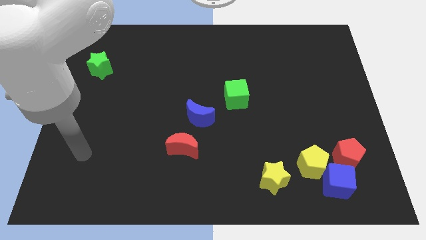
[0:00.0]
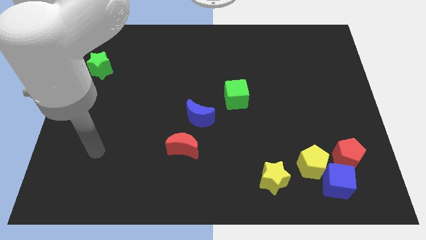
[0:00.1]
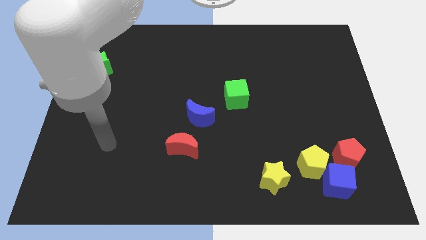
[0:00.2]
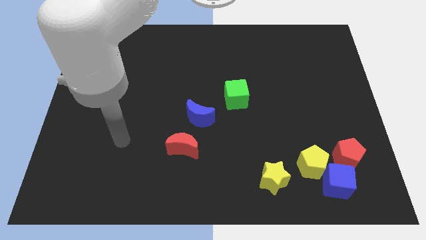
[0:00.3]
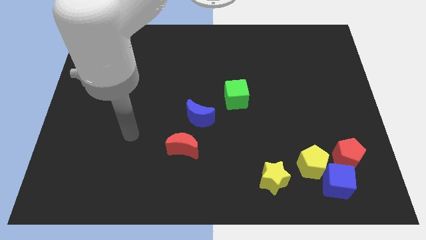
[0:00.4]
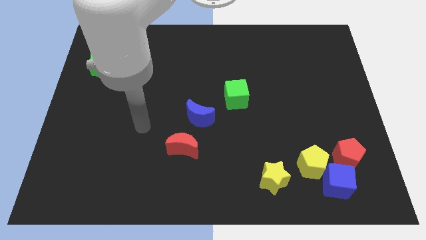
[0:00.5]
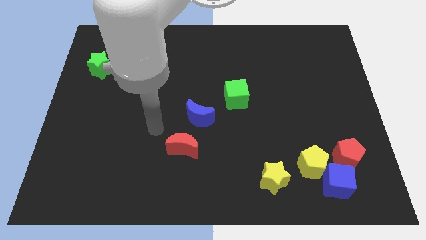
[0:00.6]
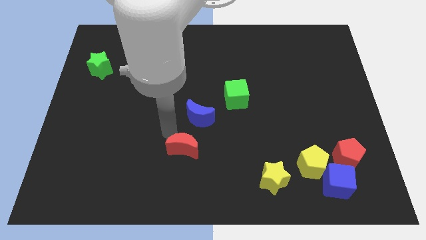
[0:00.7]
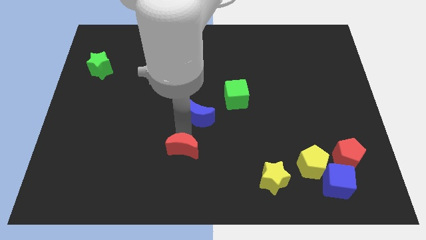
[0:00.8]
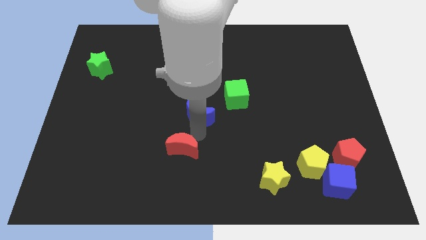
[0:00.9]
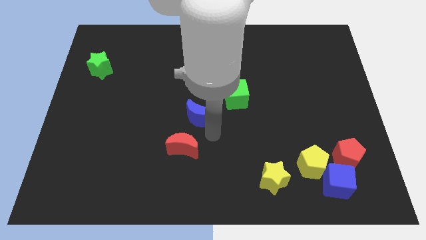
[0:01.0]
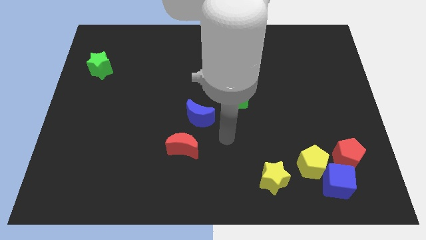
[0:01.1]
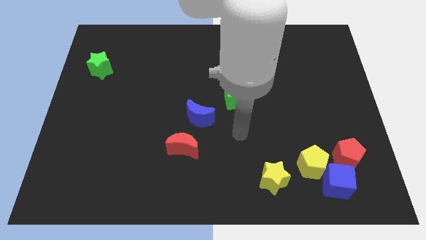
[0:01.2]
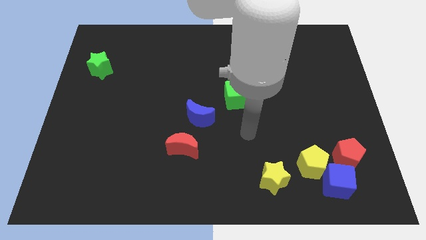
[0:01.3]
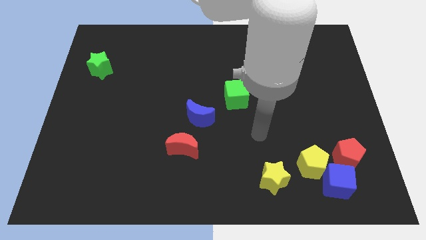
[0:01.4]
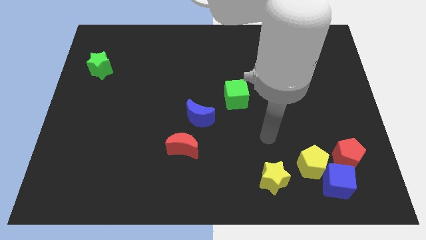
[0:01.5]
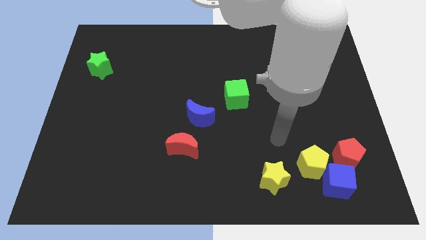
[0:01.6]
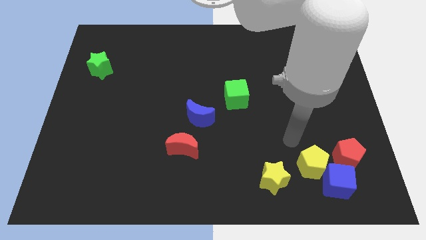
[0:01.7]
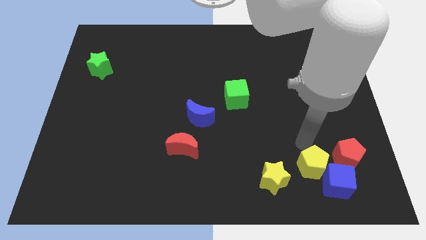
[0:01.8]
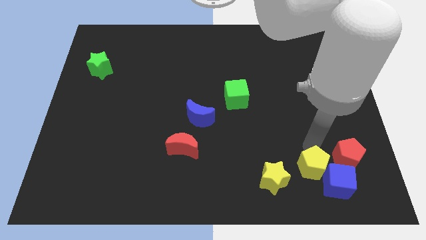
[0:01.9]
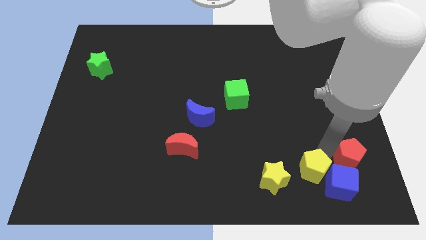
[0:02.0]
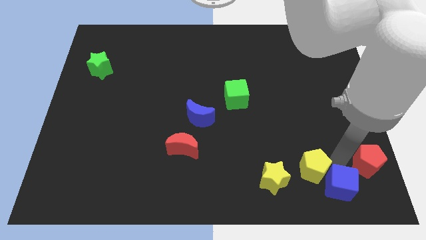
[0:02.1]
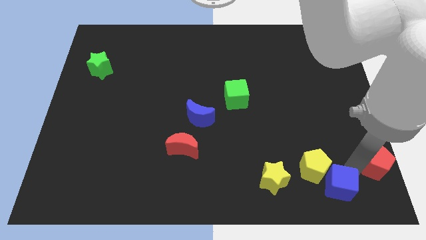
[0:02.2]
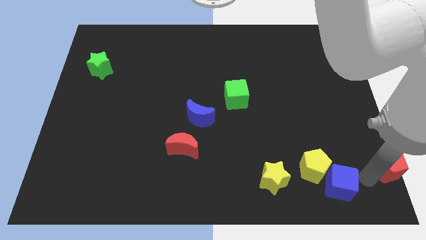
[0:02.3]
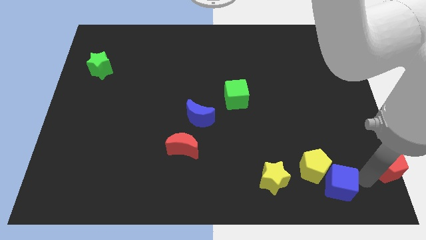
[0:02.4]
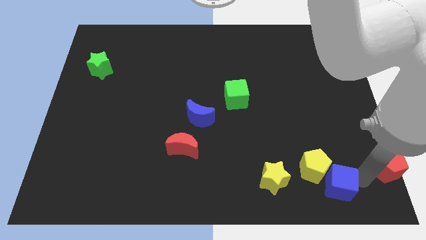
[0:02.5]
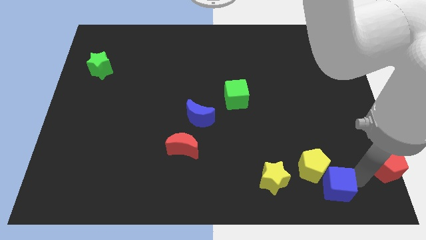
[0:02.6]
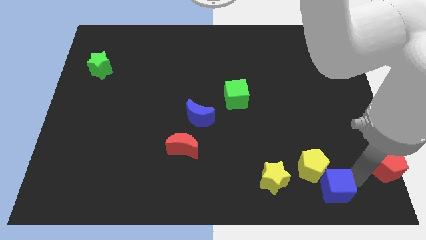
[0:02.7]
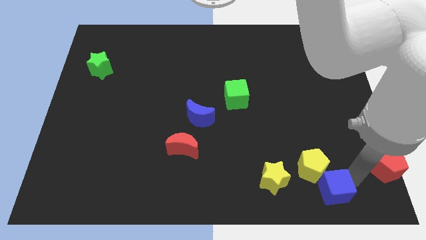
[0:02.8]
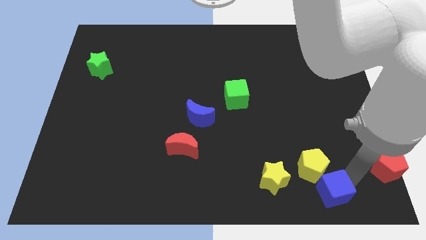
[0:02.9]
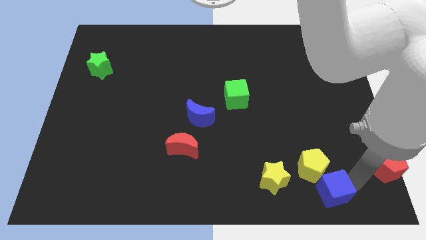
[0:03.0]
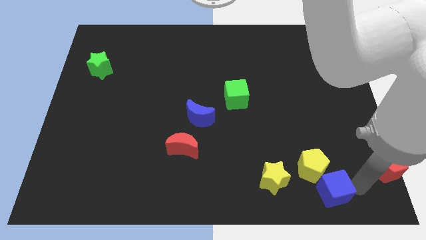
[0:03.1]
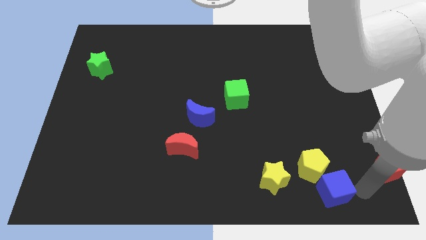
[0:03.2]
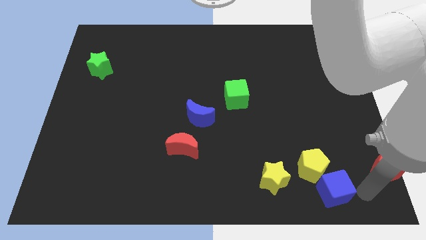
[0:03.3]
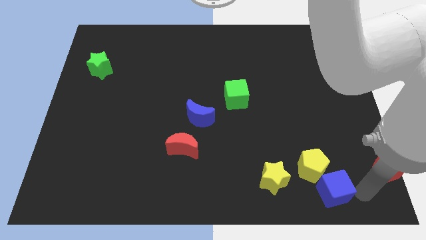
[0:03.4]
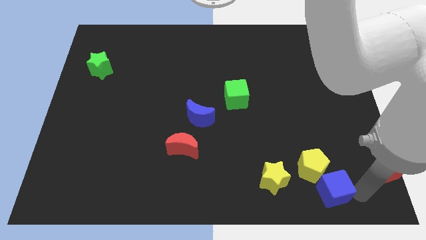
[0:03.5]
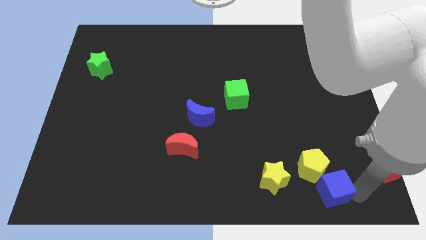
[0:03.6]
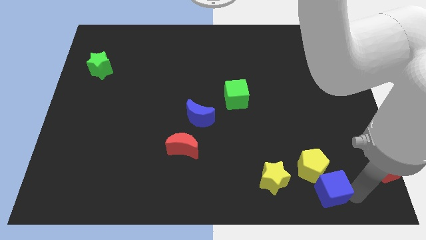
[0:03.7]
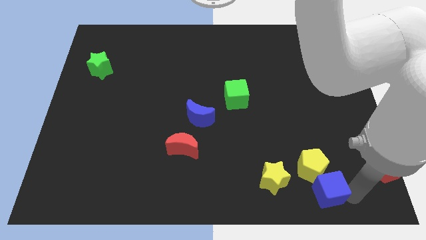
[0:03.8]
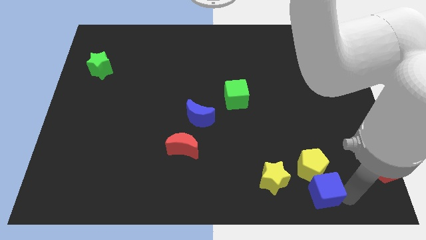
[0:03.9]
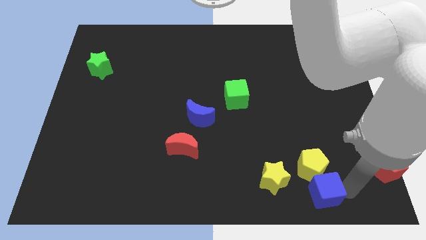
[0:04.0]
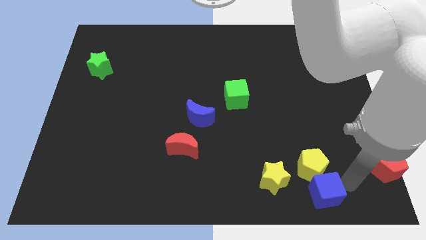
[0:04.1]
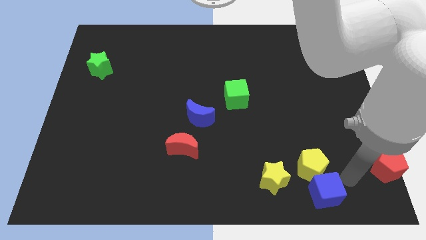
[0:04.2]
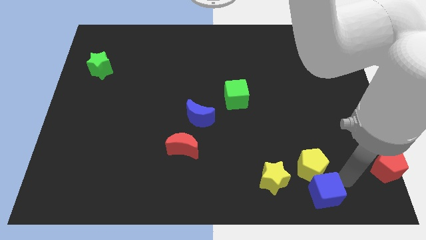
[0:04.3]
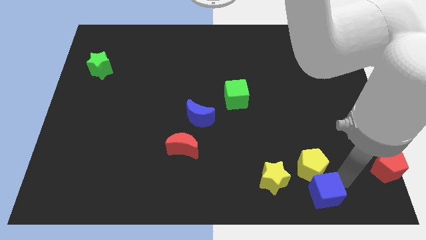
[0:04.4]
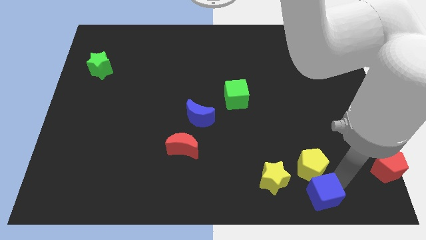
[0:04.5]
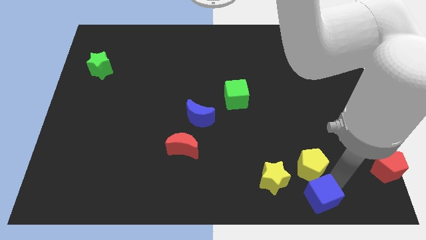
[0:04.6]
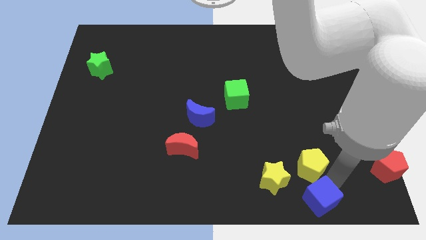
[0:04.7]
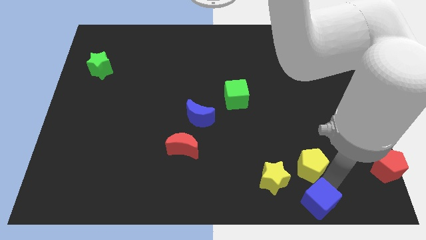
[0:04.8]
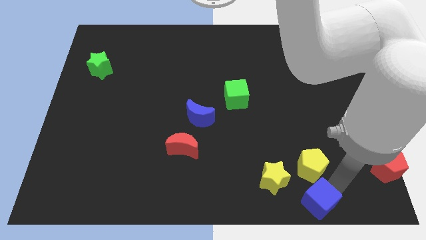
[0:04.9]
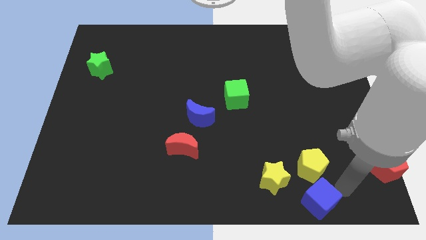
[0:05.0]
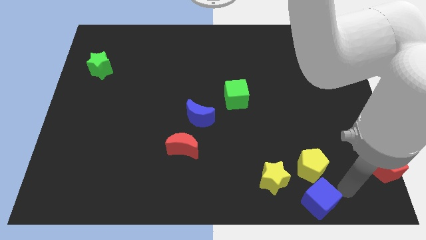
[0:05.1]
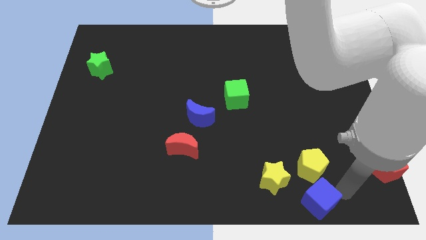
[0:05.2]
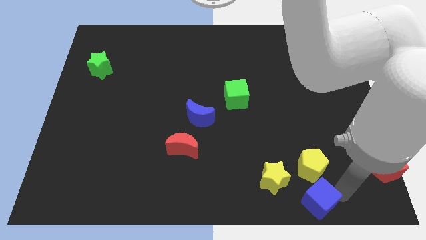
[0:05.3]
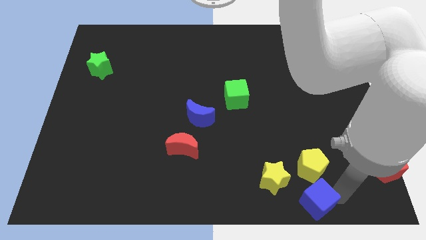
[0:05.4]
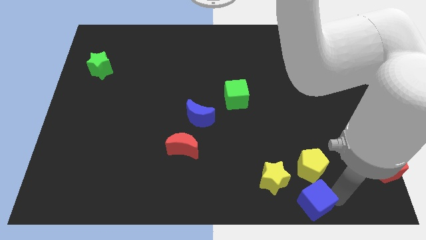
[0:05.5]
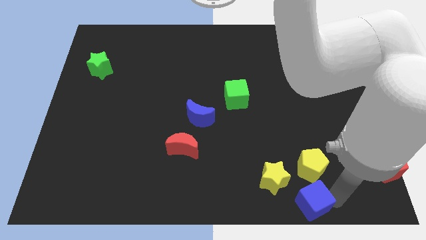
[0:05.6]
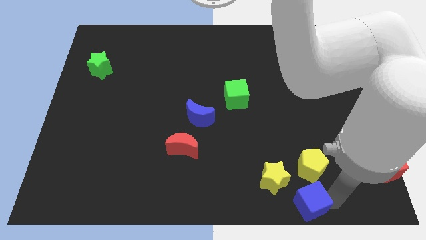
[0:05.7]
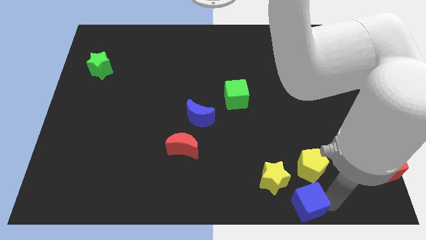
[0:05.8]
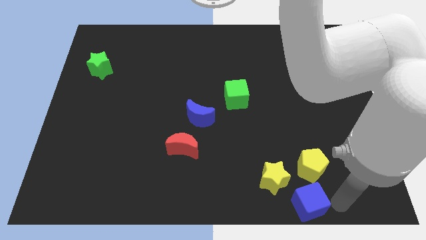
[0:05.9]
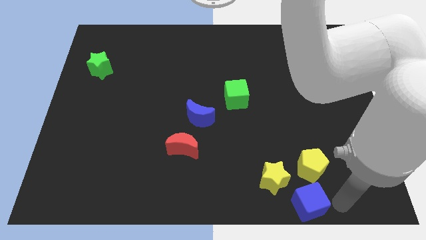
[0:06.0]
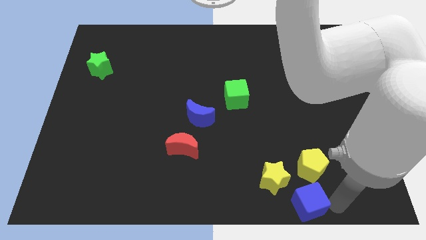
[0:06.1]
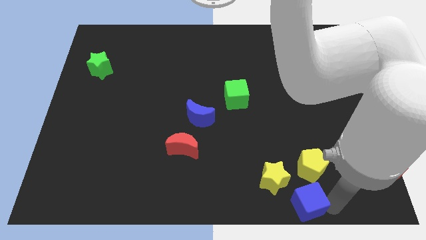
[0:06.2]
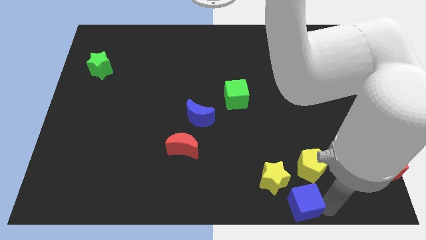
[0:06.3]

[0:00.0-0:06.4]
push the blue cube left somewhat

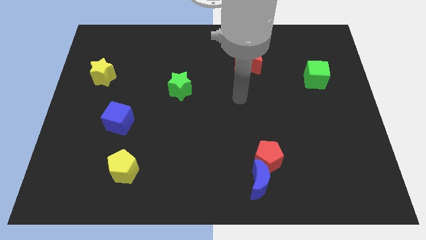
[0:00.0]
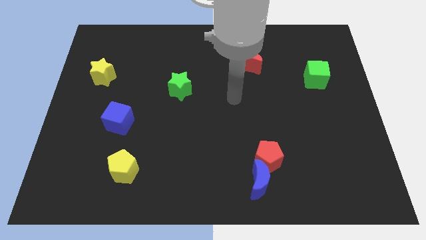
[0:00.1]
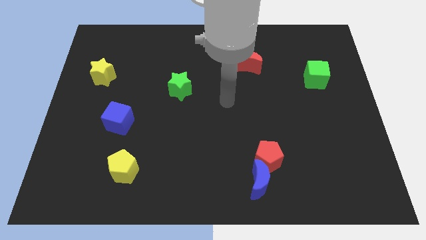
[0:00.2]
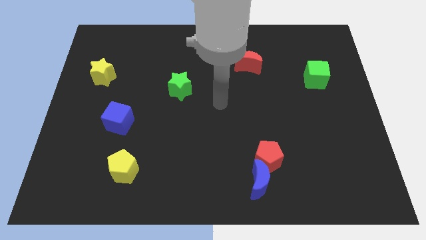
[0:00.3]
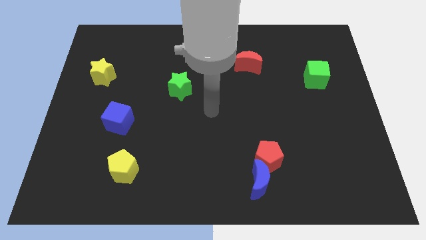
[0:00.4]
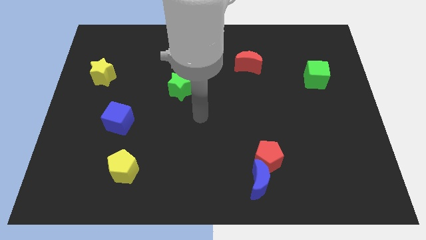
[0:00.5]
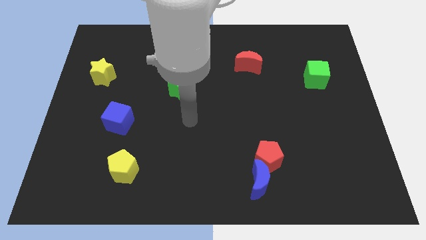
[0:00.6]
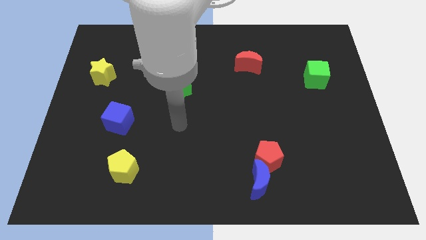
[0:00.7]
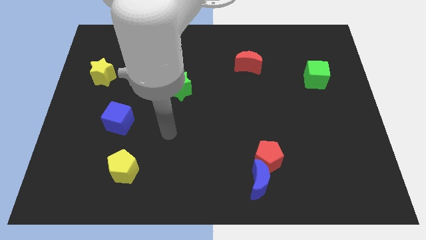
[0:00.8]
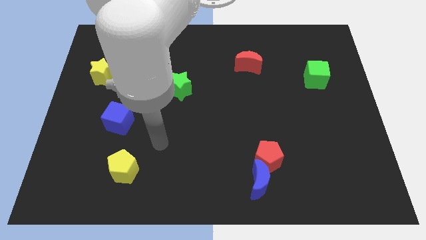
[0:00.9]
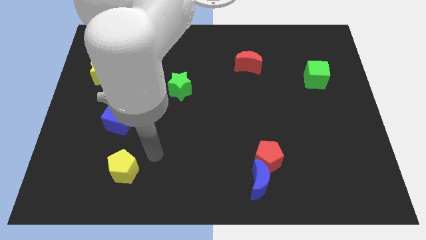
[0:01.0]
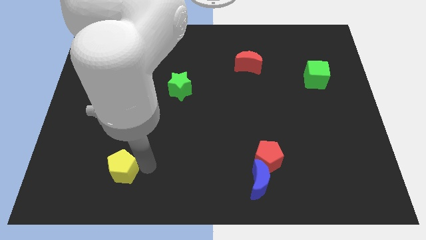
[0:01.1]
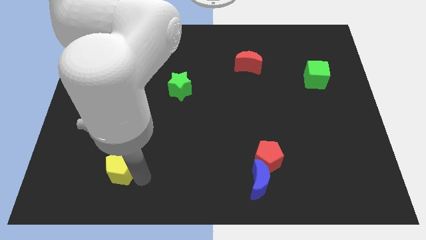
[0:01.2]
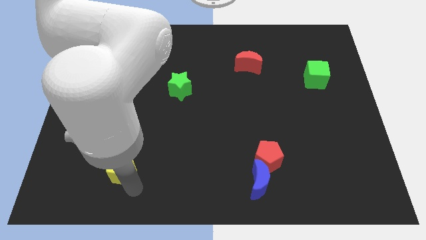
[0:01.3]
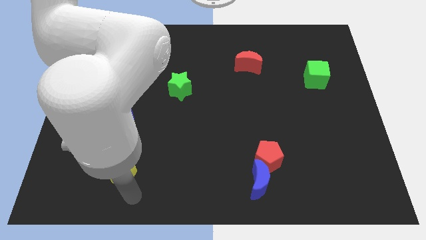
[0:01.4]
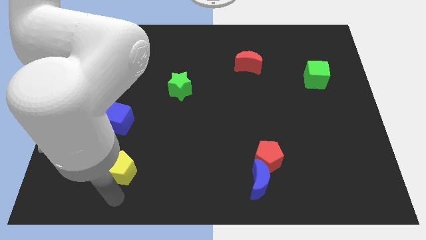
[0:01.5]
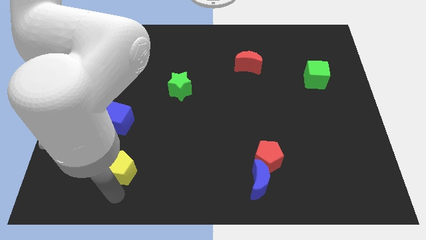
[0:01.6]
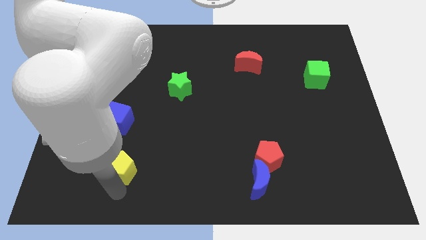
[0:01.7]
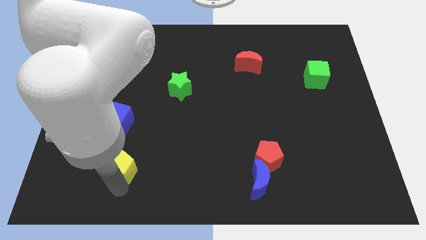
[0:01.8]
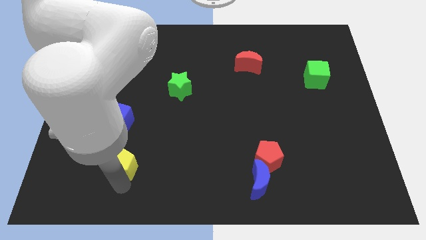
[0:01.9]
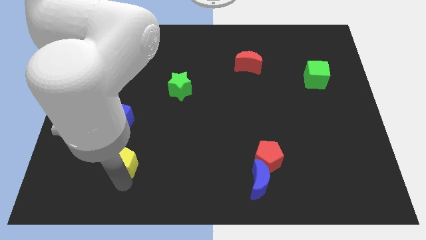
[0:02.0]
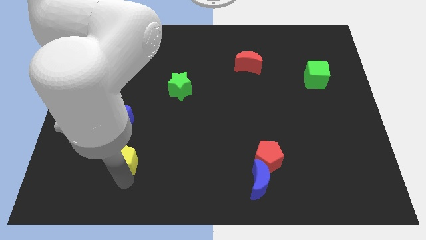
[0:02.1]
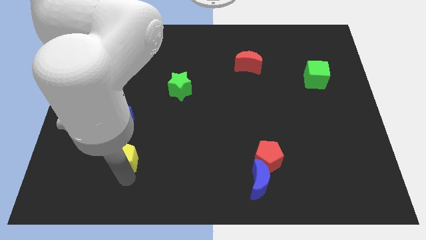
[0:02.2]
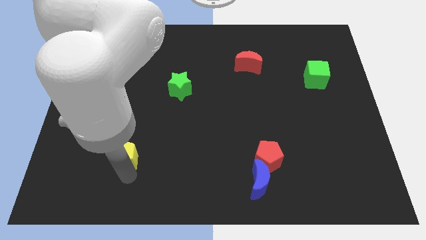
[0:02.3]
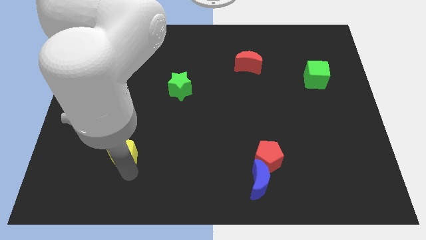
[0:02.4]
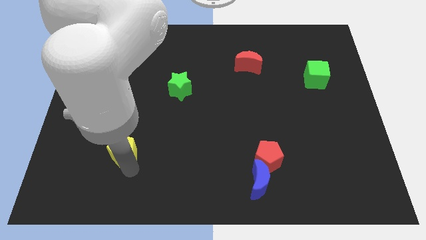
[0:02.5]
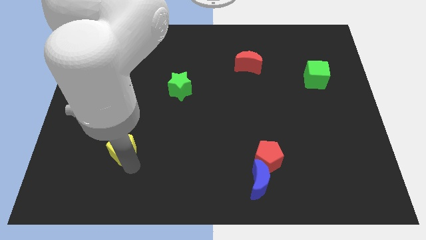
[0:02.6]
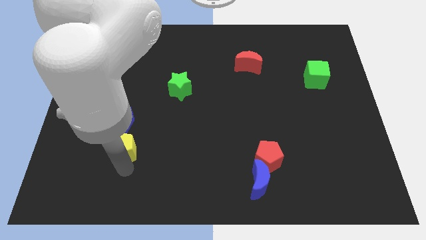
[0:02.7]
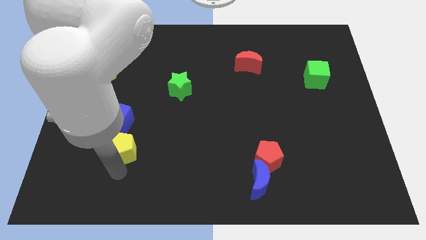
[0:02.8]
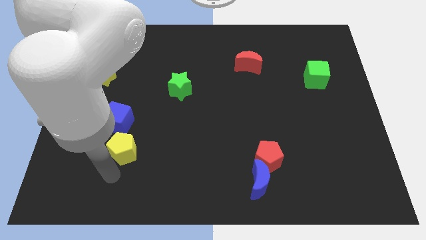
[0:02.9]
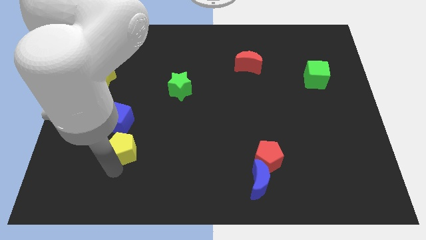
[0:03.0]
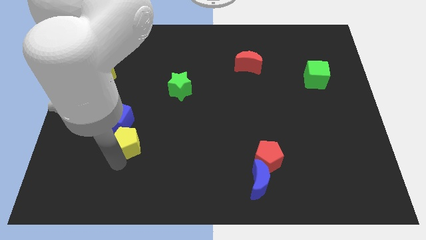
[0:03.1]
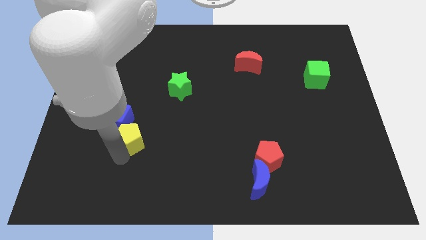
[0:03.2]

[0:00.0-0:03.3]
slide the yellow pentagon a little bit up
